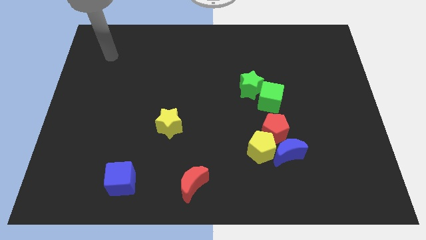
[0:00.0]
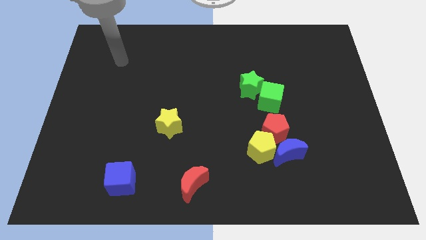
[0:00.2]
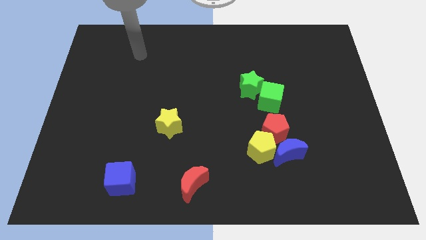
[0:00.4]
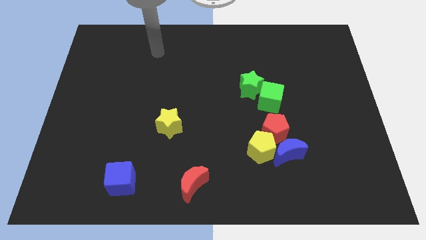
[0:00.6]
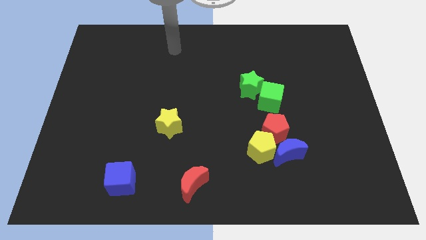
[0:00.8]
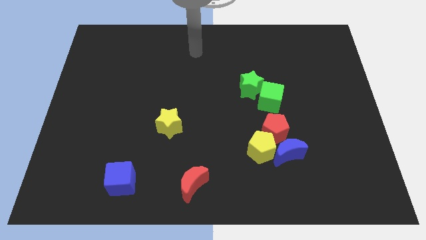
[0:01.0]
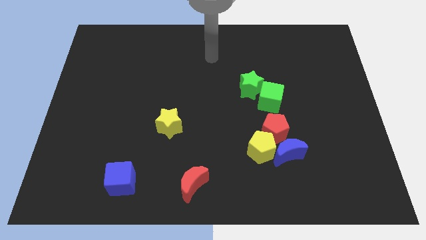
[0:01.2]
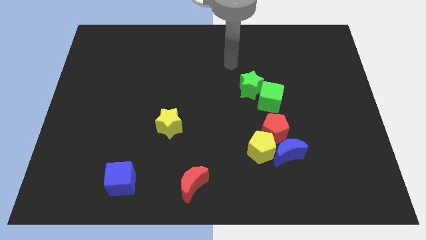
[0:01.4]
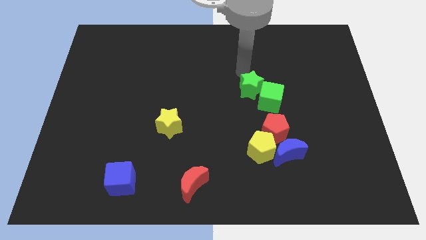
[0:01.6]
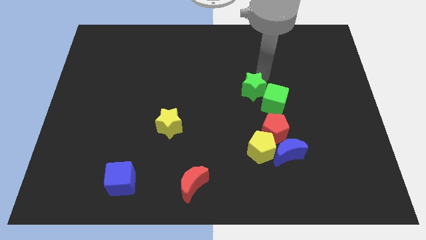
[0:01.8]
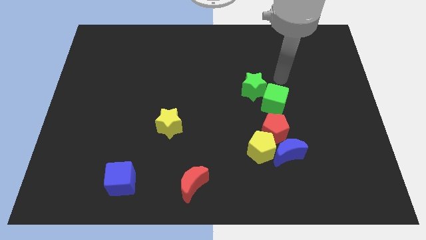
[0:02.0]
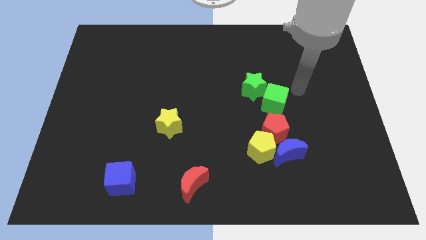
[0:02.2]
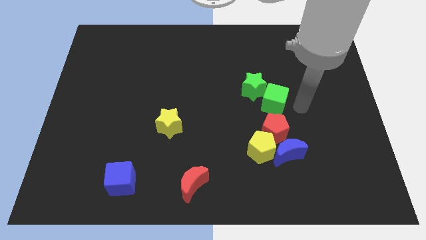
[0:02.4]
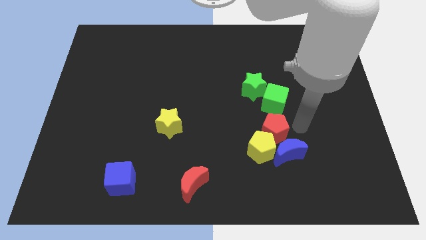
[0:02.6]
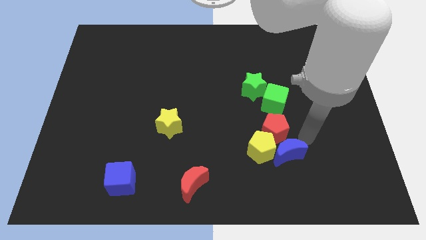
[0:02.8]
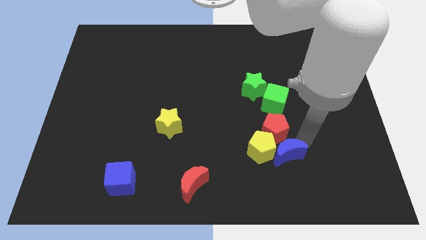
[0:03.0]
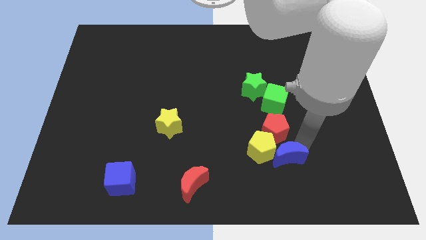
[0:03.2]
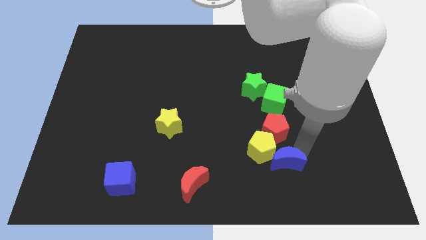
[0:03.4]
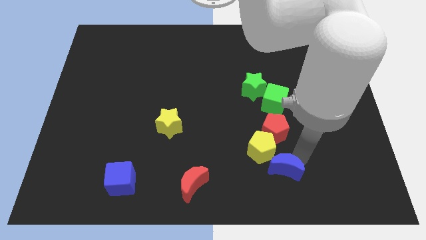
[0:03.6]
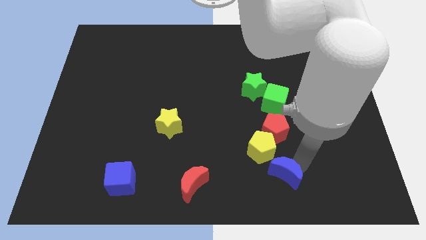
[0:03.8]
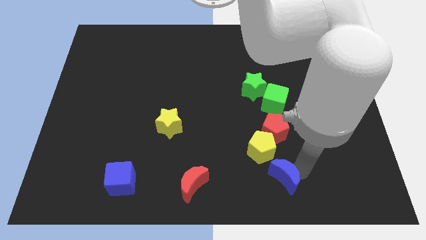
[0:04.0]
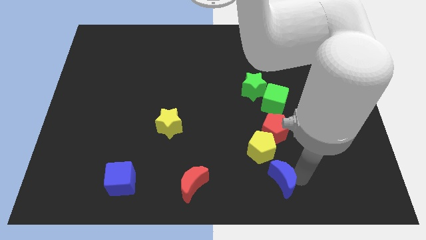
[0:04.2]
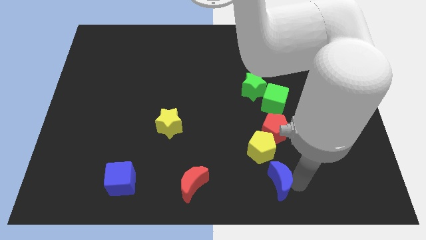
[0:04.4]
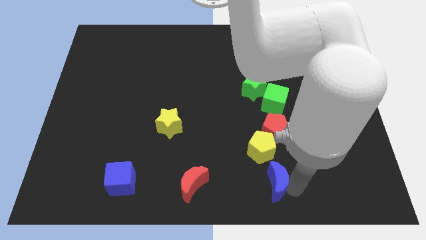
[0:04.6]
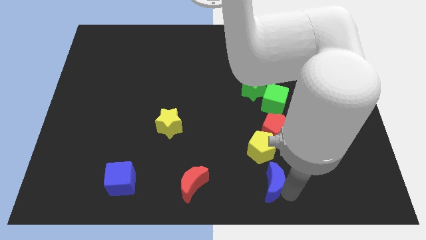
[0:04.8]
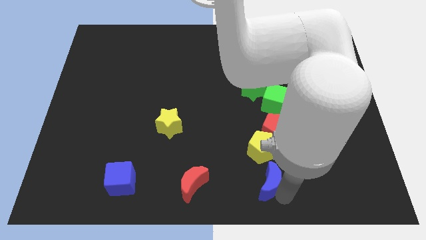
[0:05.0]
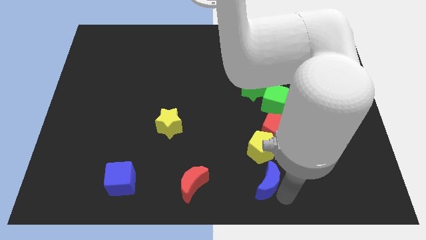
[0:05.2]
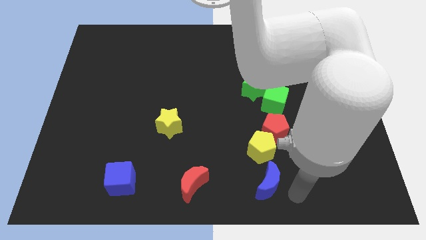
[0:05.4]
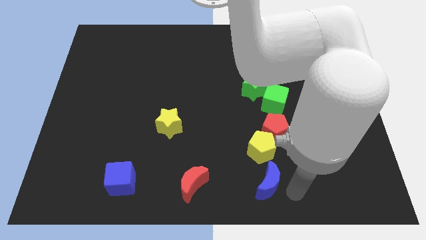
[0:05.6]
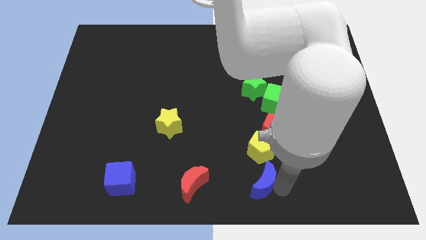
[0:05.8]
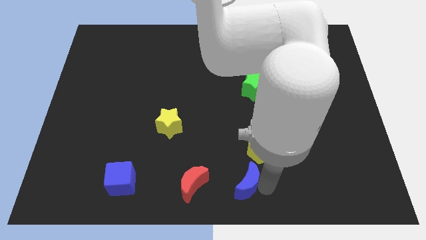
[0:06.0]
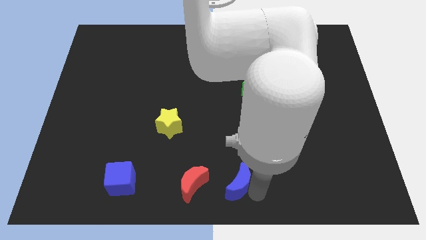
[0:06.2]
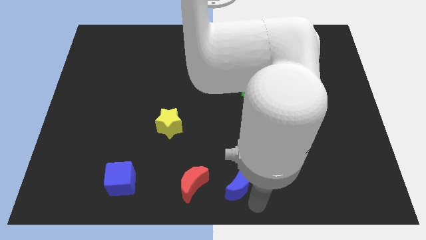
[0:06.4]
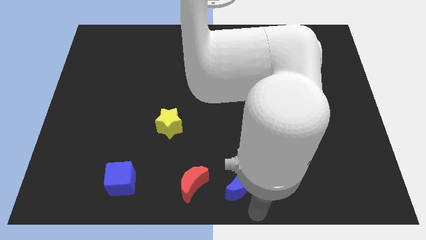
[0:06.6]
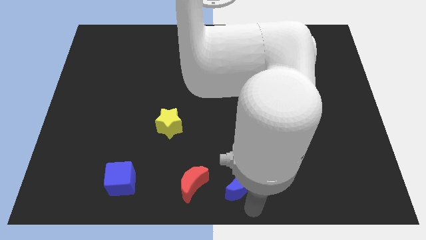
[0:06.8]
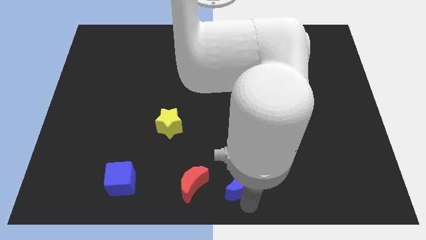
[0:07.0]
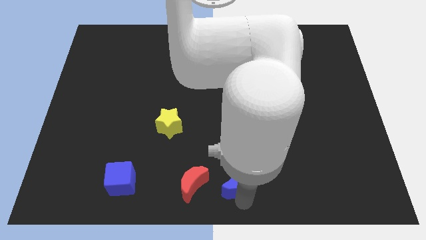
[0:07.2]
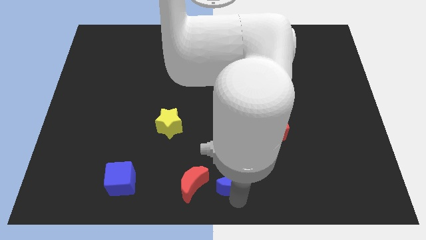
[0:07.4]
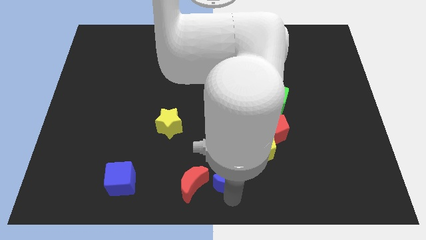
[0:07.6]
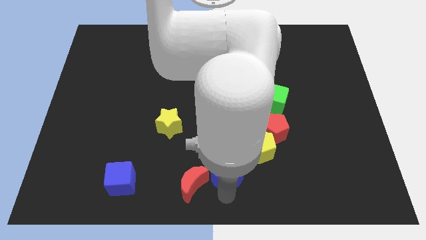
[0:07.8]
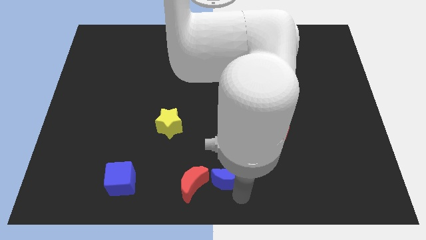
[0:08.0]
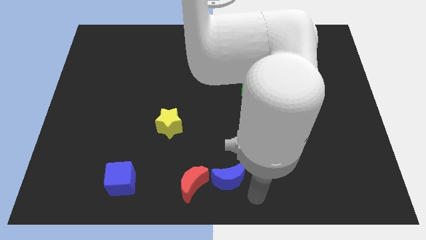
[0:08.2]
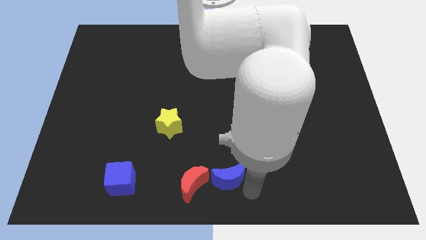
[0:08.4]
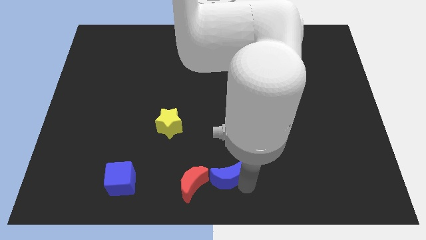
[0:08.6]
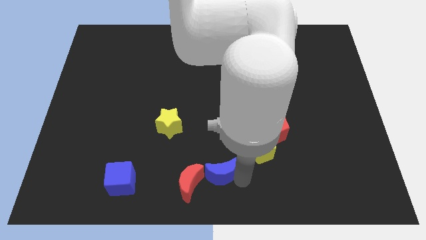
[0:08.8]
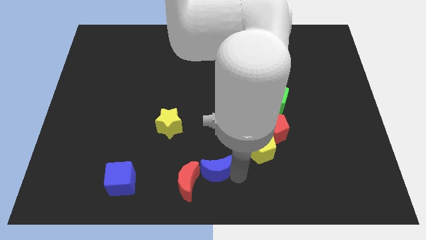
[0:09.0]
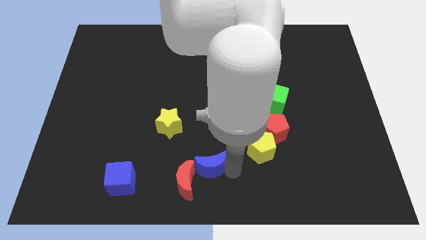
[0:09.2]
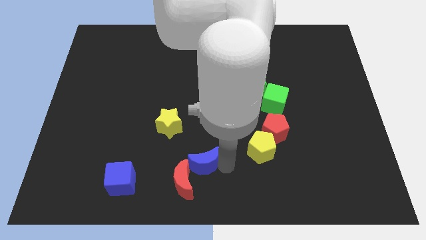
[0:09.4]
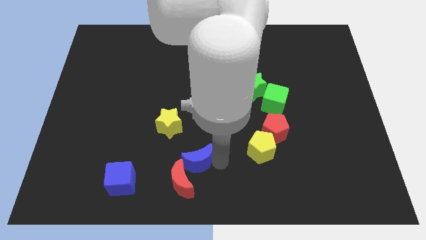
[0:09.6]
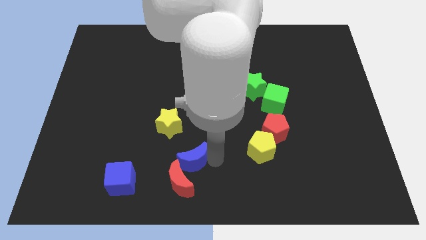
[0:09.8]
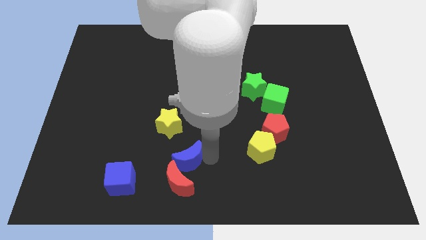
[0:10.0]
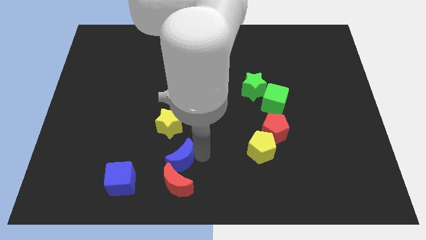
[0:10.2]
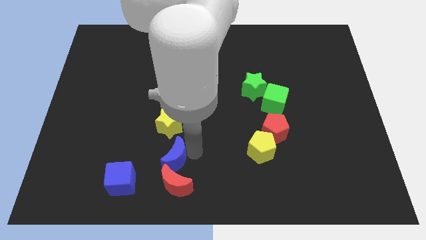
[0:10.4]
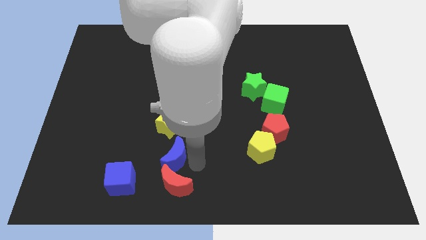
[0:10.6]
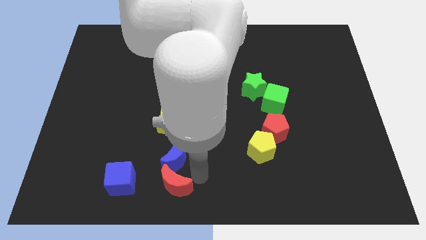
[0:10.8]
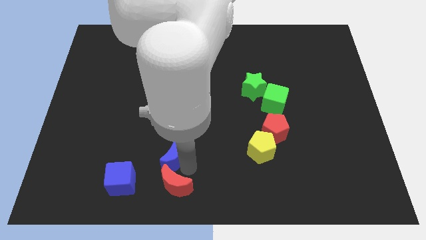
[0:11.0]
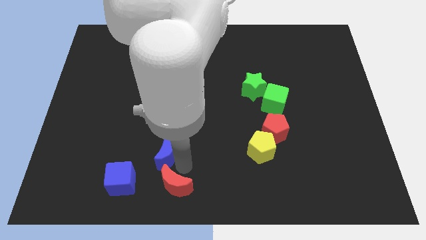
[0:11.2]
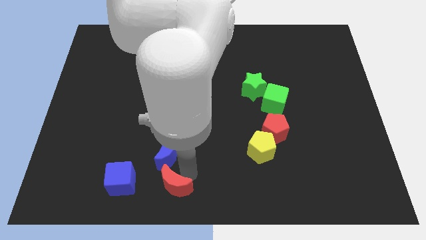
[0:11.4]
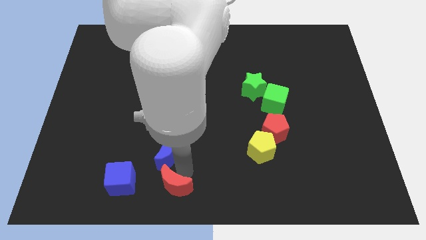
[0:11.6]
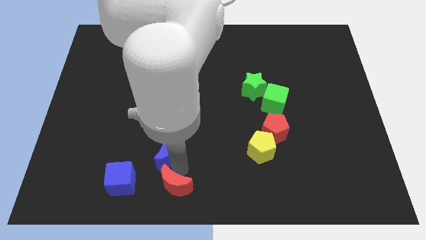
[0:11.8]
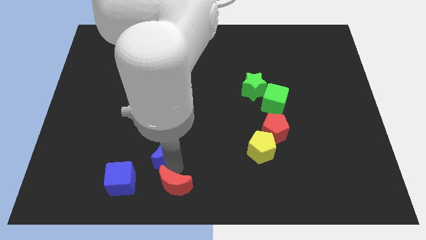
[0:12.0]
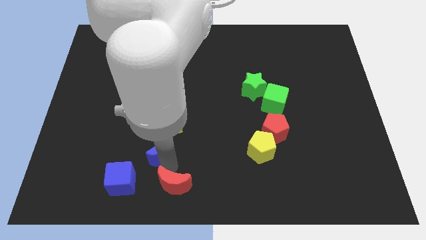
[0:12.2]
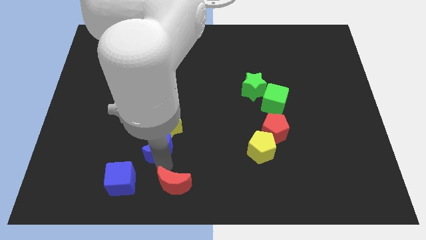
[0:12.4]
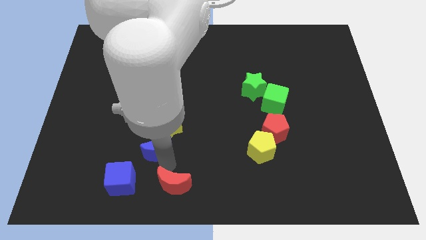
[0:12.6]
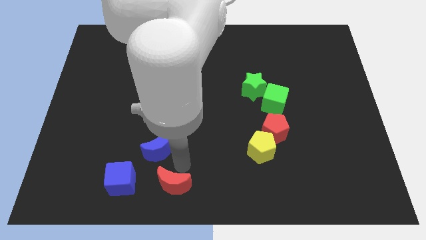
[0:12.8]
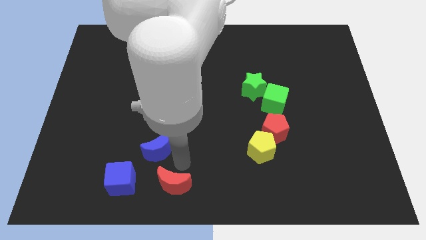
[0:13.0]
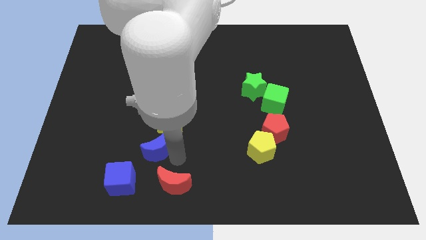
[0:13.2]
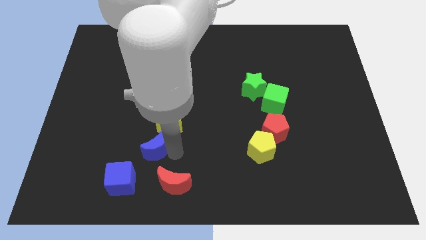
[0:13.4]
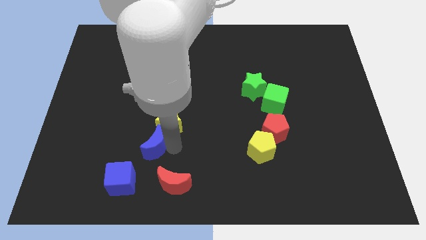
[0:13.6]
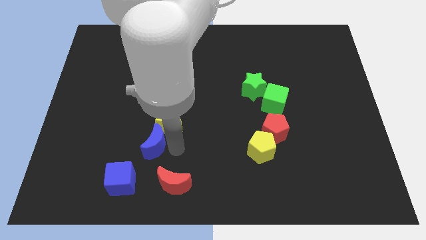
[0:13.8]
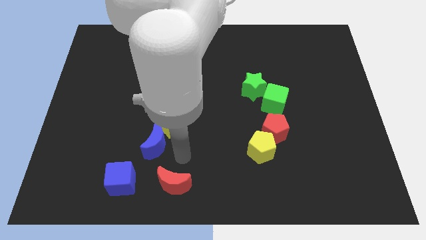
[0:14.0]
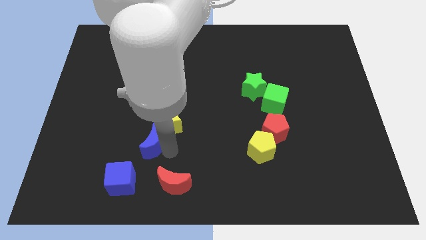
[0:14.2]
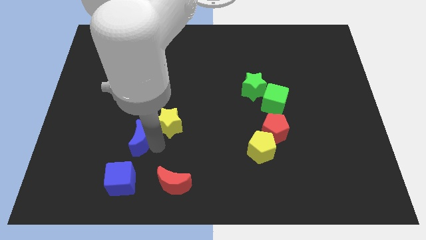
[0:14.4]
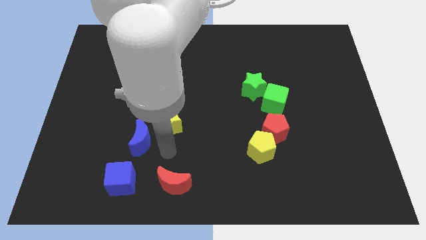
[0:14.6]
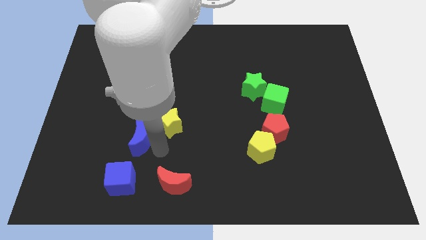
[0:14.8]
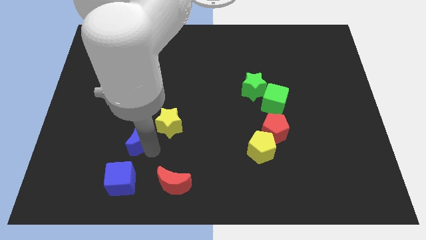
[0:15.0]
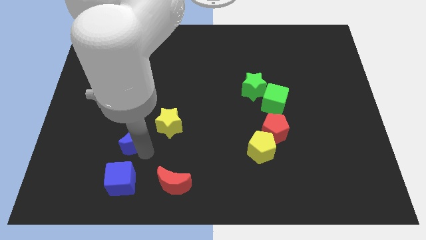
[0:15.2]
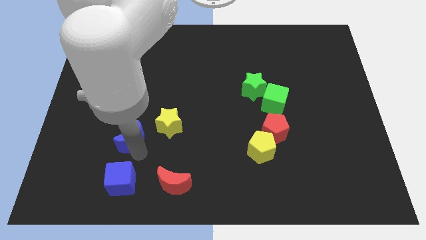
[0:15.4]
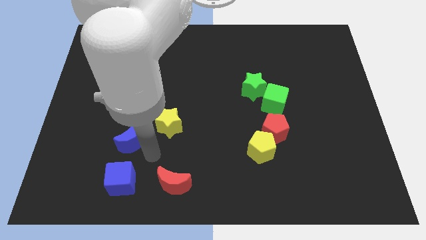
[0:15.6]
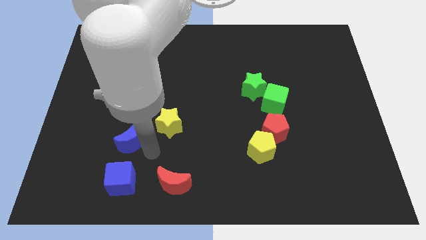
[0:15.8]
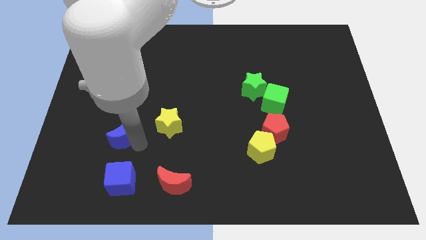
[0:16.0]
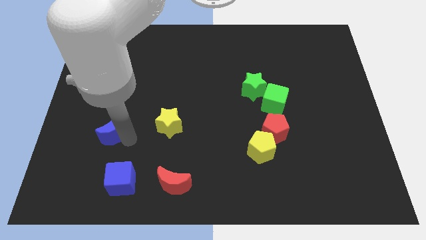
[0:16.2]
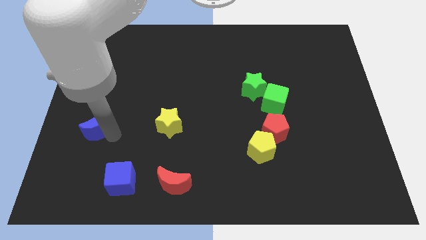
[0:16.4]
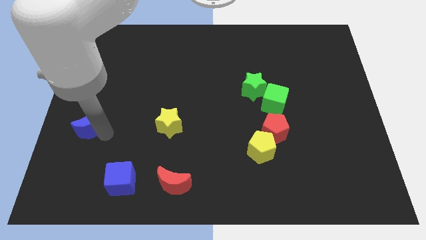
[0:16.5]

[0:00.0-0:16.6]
push the blue moon to the left side
